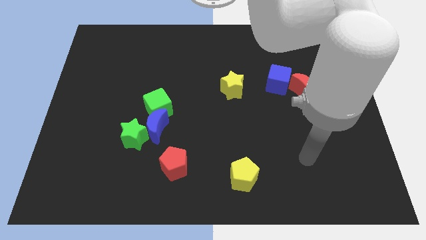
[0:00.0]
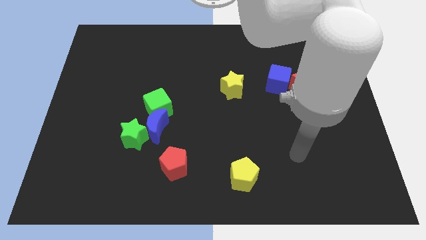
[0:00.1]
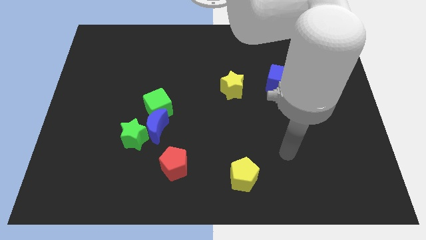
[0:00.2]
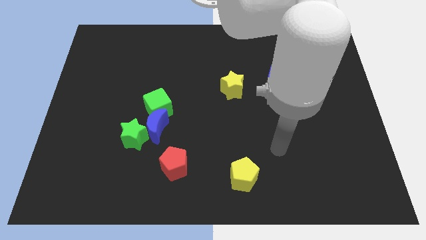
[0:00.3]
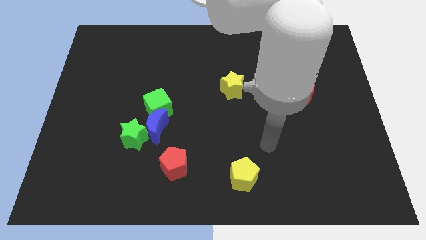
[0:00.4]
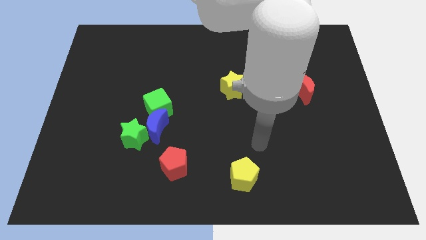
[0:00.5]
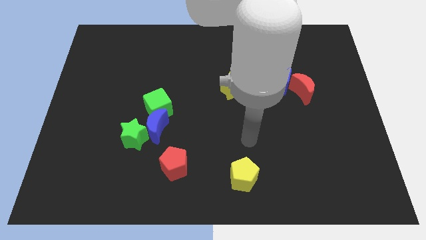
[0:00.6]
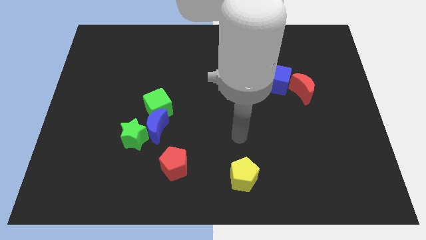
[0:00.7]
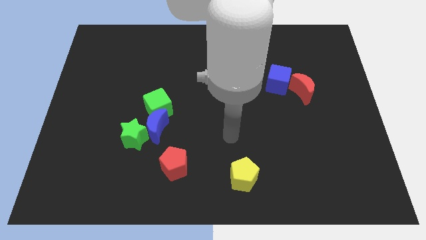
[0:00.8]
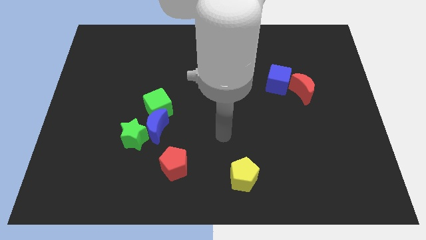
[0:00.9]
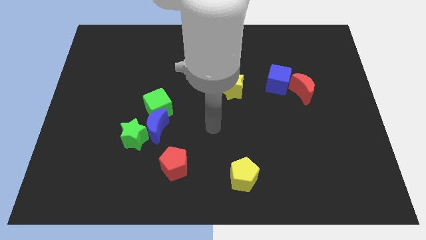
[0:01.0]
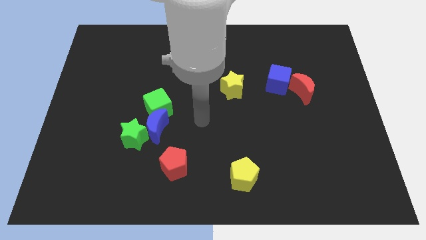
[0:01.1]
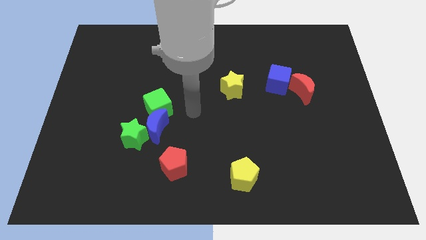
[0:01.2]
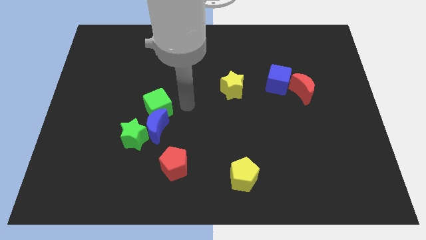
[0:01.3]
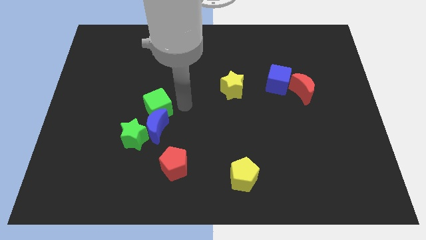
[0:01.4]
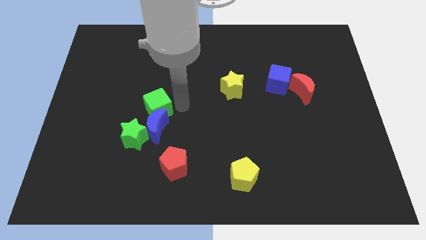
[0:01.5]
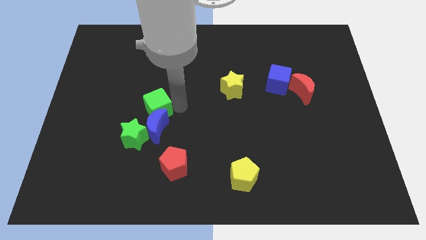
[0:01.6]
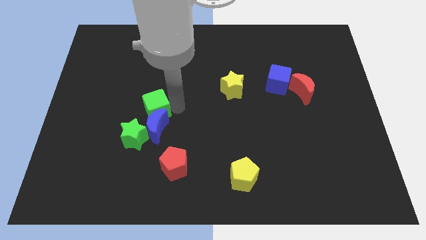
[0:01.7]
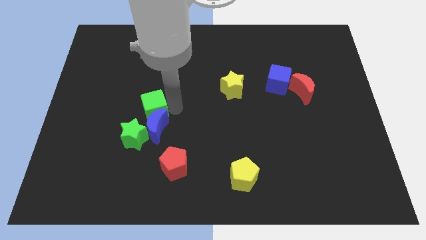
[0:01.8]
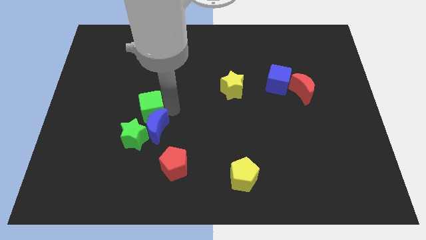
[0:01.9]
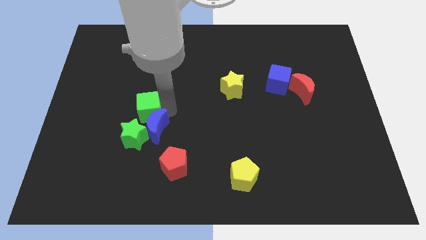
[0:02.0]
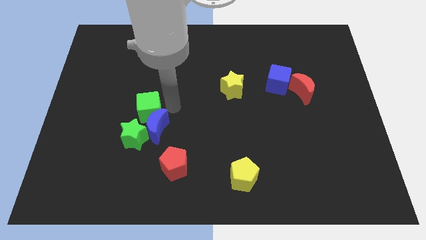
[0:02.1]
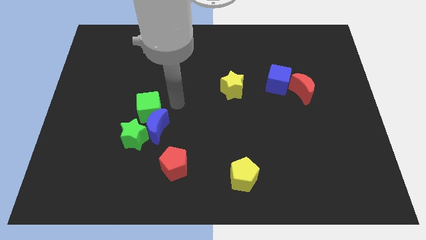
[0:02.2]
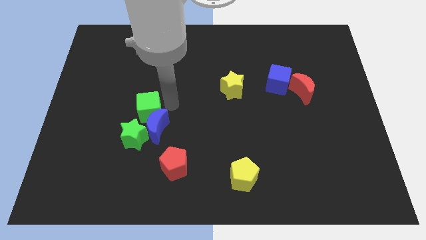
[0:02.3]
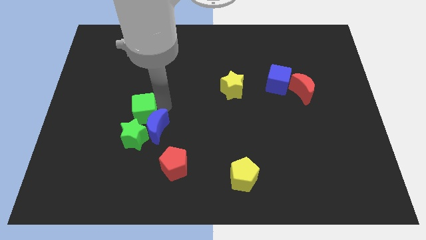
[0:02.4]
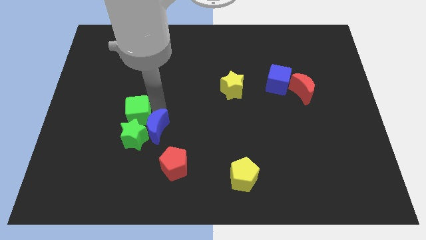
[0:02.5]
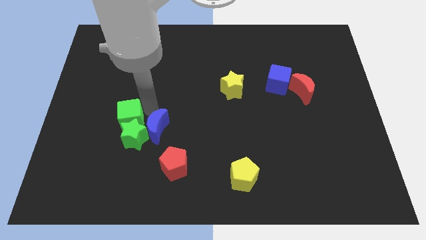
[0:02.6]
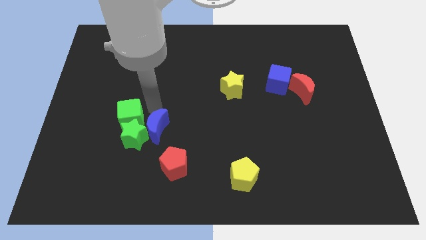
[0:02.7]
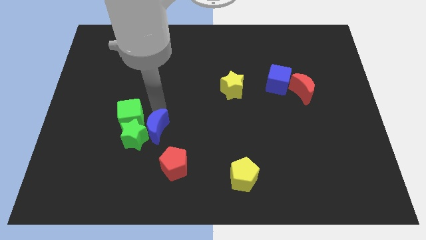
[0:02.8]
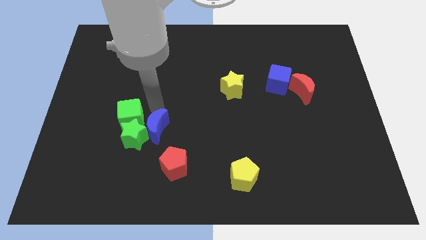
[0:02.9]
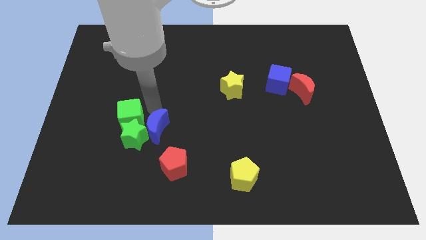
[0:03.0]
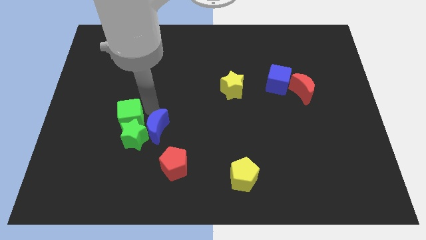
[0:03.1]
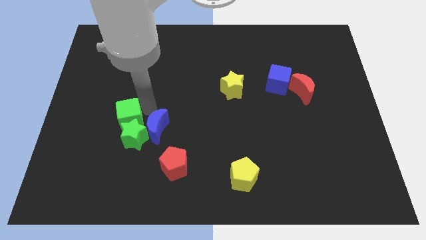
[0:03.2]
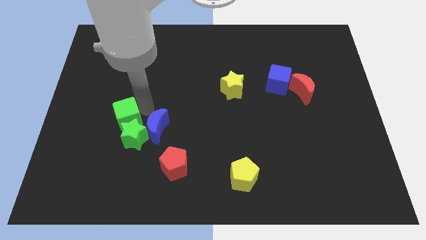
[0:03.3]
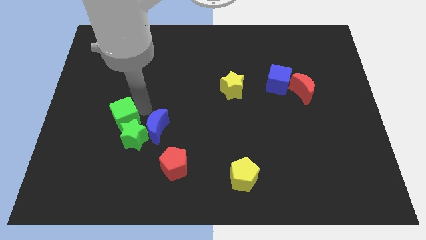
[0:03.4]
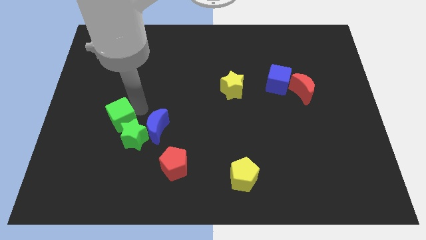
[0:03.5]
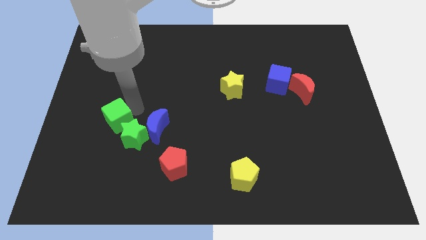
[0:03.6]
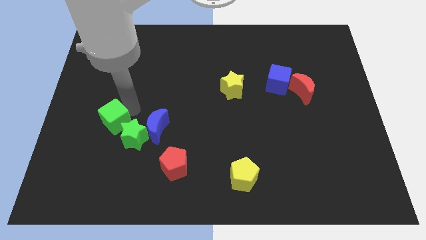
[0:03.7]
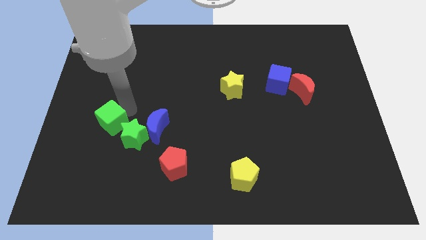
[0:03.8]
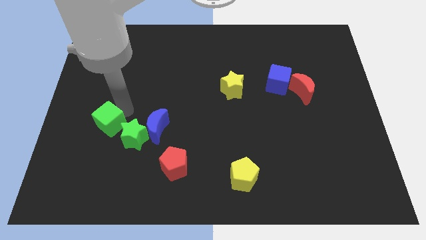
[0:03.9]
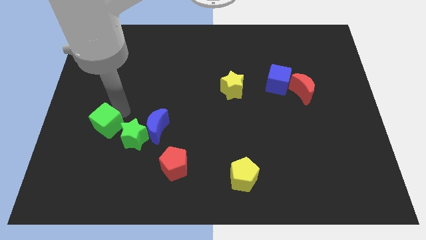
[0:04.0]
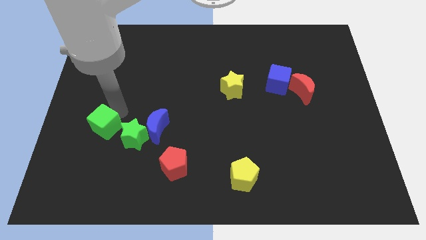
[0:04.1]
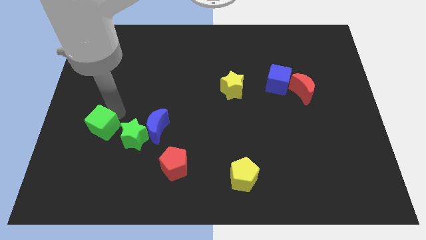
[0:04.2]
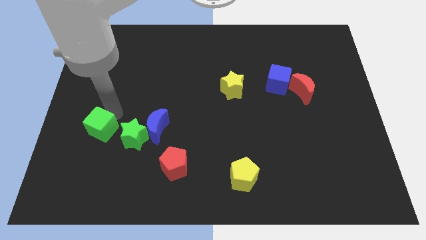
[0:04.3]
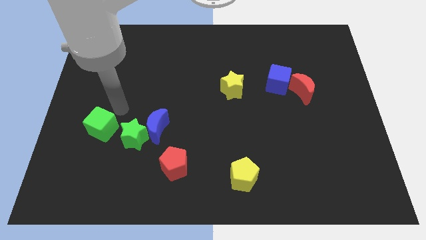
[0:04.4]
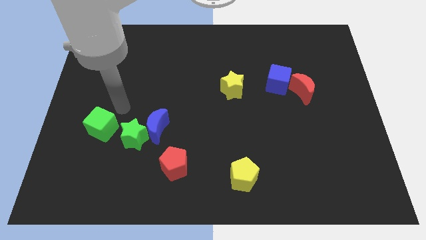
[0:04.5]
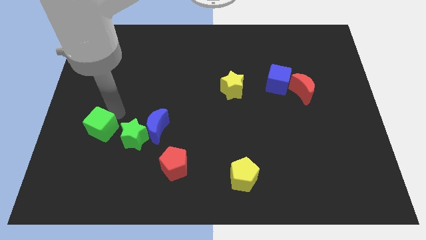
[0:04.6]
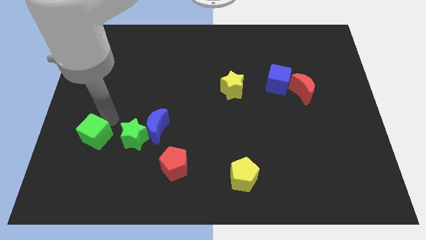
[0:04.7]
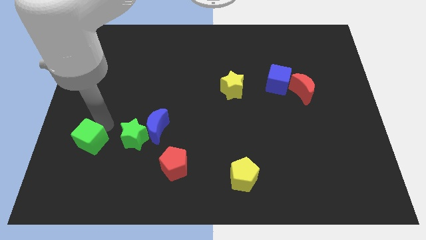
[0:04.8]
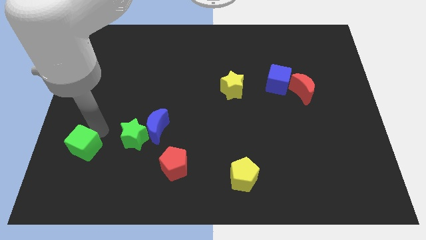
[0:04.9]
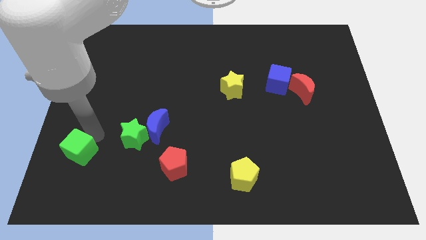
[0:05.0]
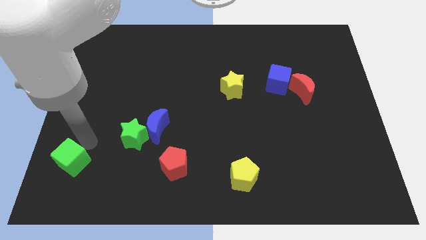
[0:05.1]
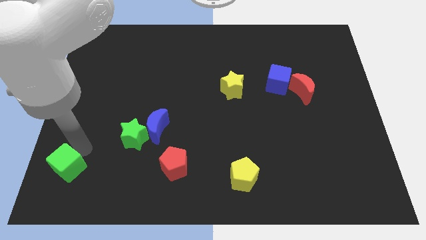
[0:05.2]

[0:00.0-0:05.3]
move the green cube to the bottom left corner

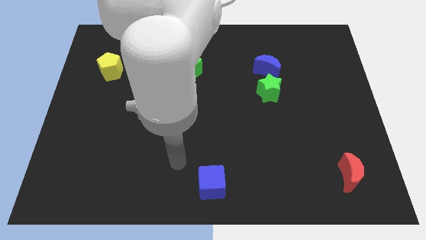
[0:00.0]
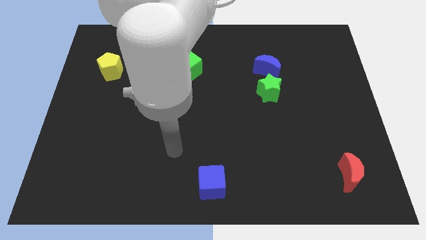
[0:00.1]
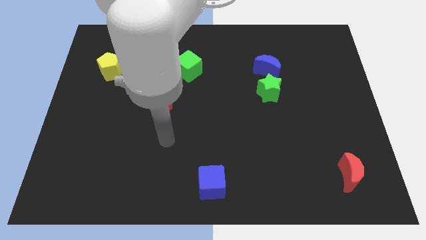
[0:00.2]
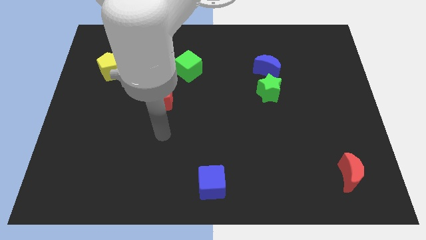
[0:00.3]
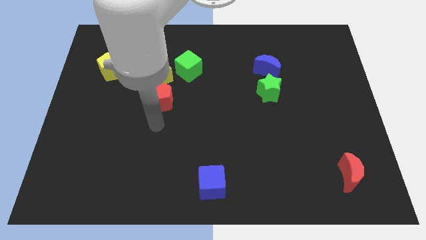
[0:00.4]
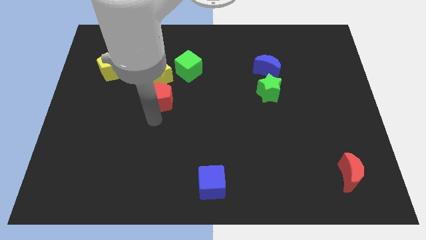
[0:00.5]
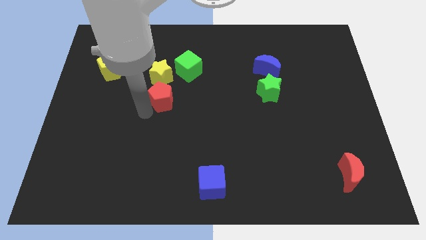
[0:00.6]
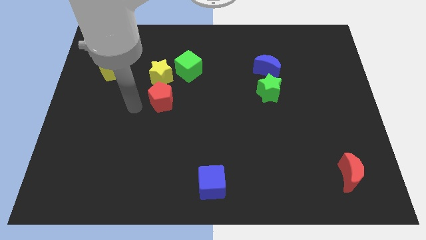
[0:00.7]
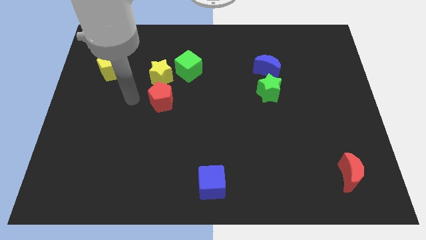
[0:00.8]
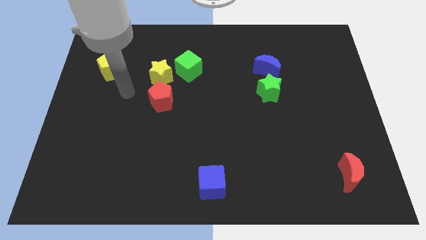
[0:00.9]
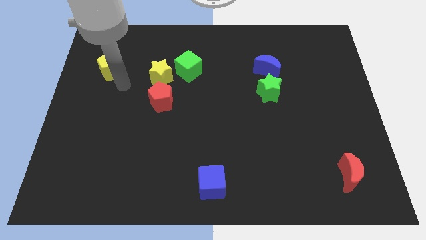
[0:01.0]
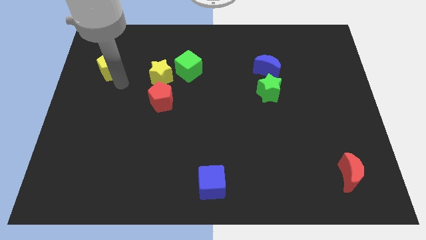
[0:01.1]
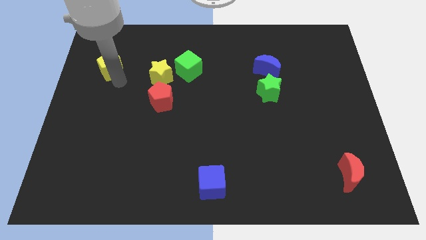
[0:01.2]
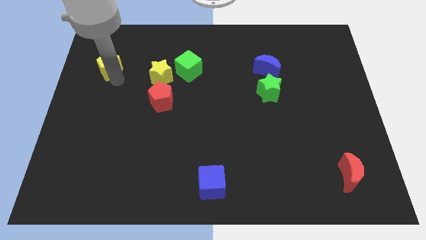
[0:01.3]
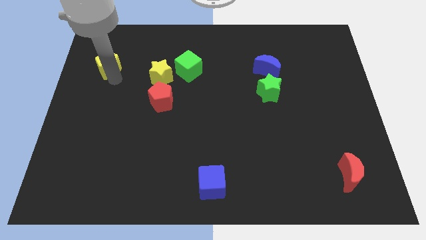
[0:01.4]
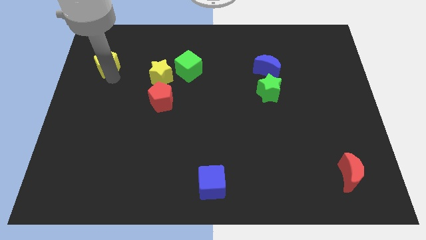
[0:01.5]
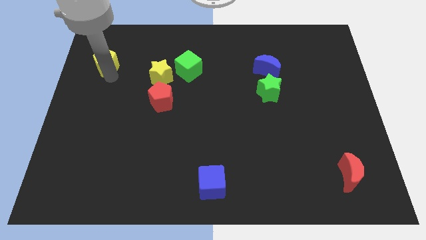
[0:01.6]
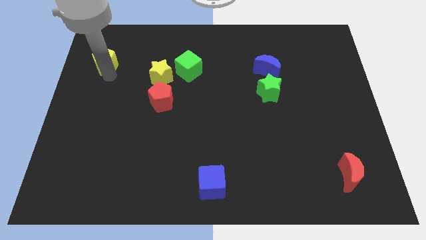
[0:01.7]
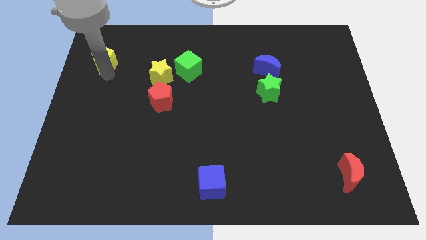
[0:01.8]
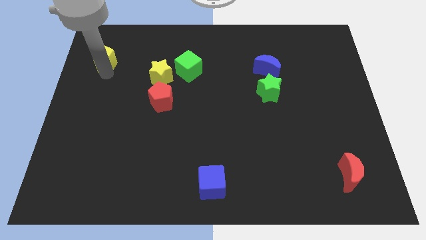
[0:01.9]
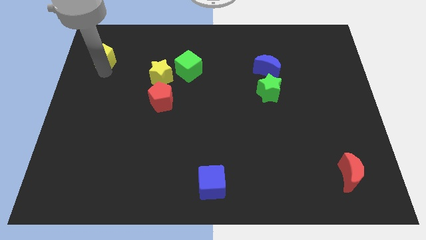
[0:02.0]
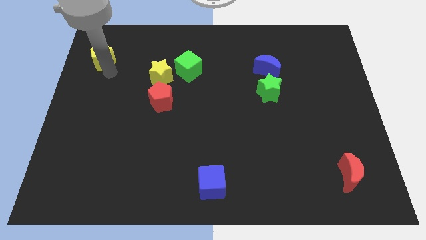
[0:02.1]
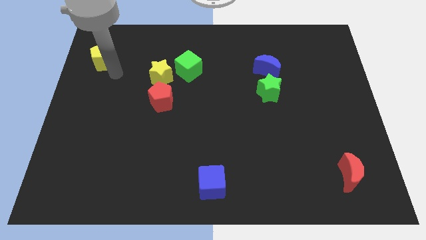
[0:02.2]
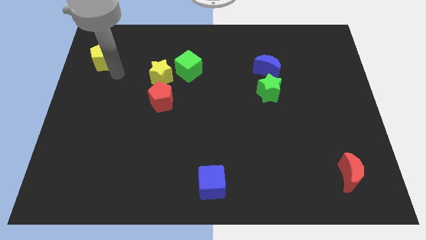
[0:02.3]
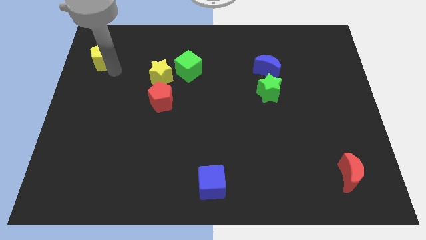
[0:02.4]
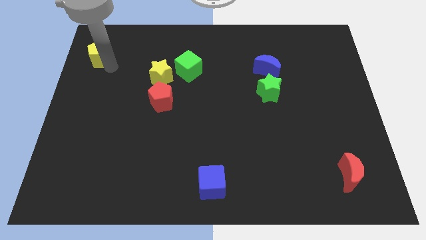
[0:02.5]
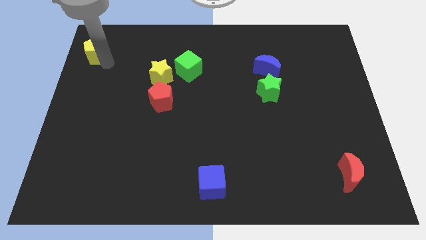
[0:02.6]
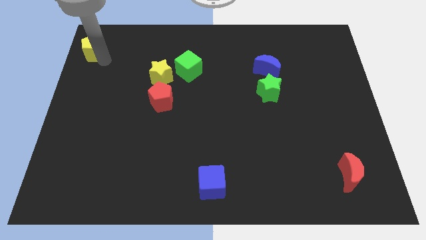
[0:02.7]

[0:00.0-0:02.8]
push the yellow pentagon to the upper left corner
